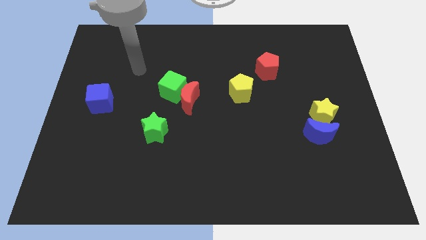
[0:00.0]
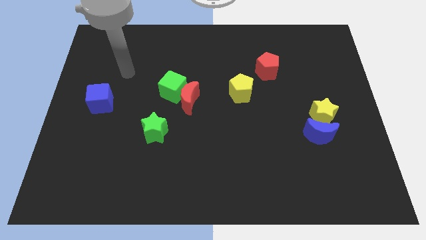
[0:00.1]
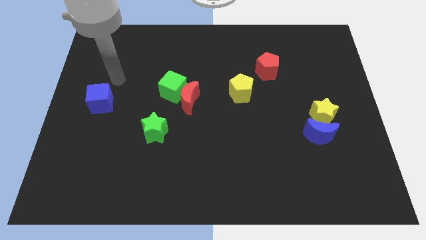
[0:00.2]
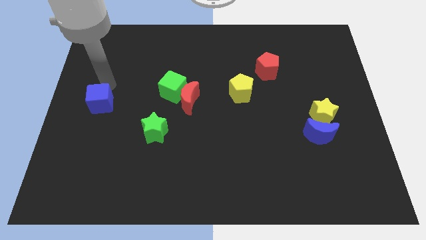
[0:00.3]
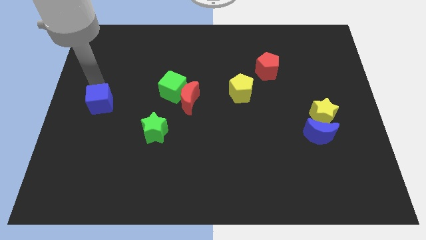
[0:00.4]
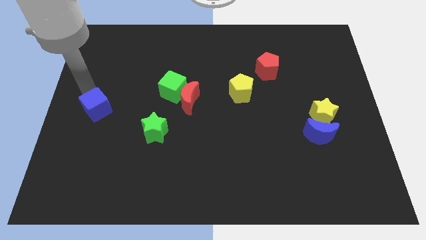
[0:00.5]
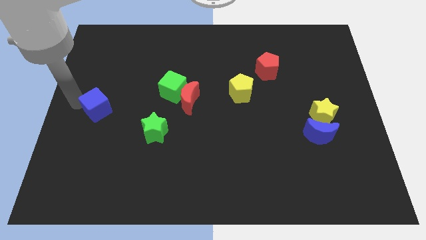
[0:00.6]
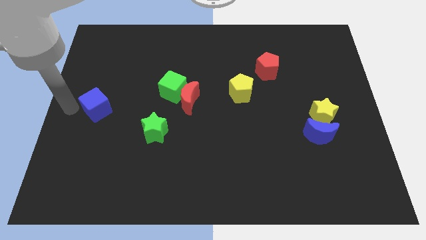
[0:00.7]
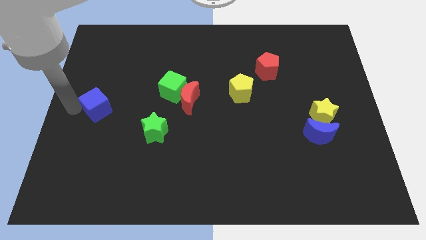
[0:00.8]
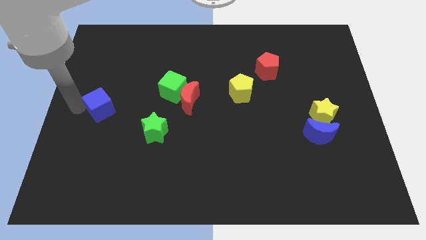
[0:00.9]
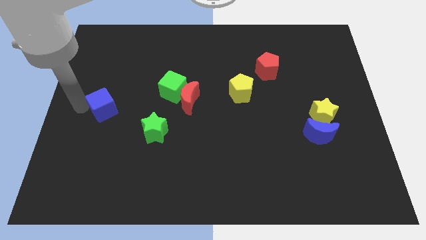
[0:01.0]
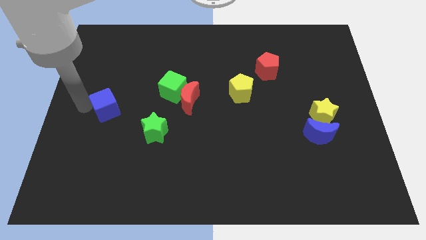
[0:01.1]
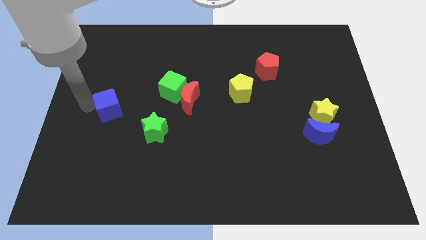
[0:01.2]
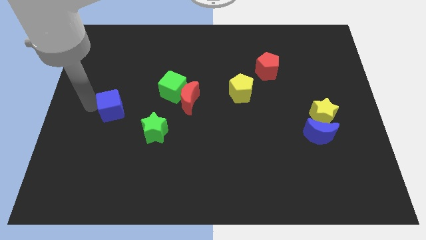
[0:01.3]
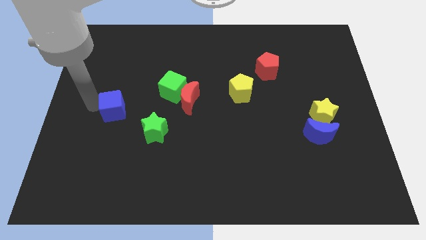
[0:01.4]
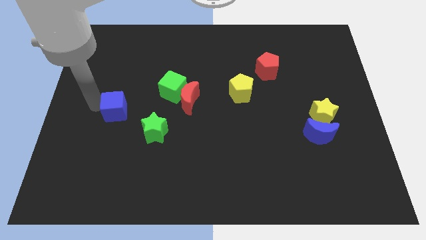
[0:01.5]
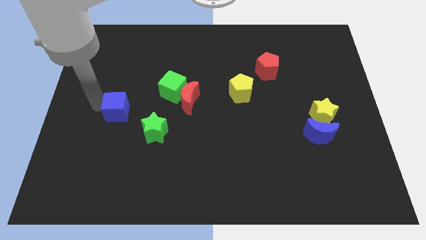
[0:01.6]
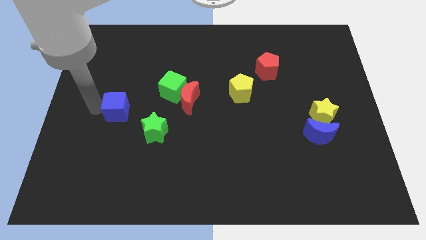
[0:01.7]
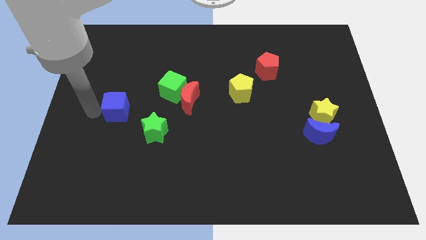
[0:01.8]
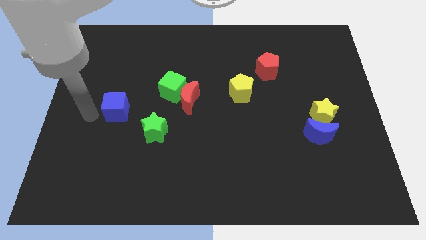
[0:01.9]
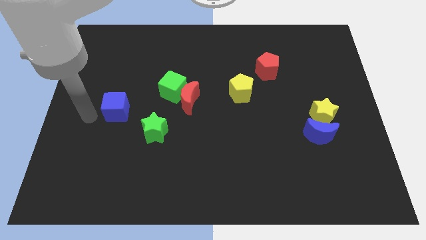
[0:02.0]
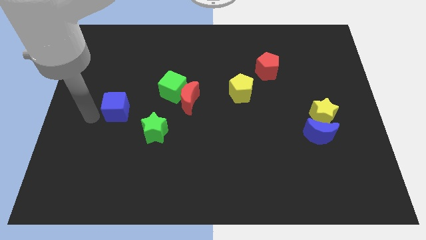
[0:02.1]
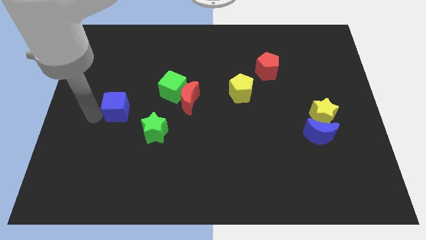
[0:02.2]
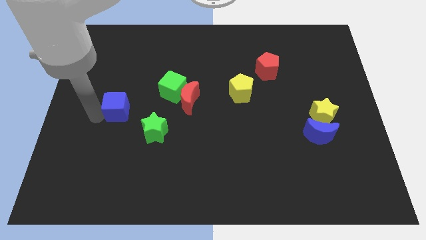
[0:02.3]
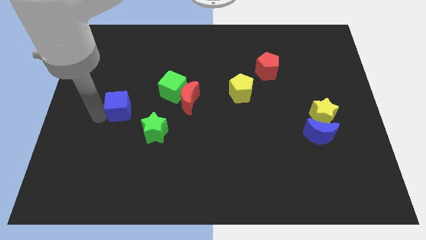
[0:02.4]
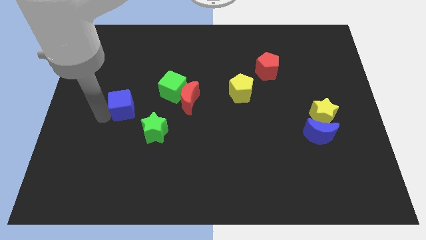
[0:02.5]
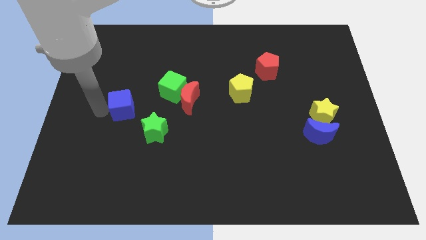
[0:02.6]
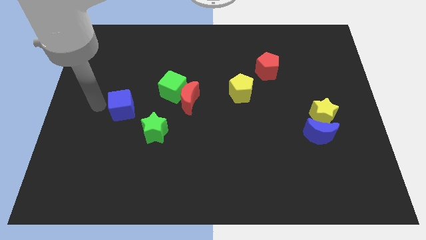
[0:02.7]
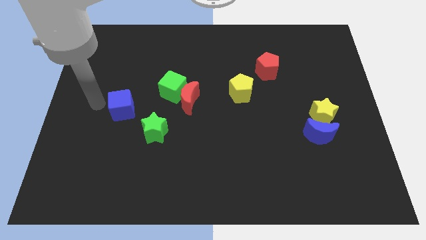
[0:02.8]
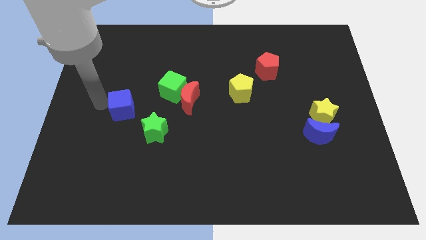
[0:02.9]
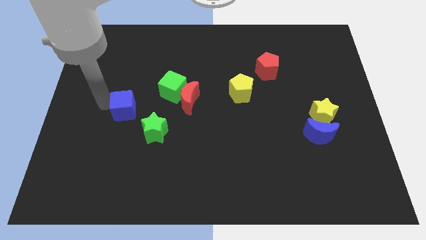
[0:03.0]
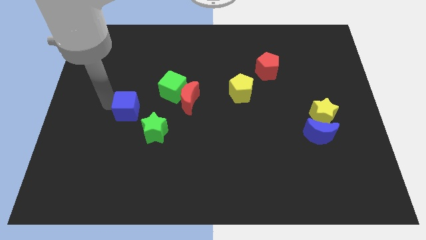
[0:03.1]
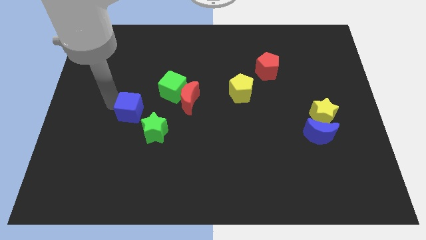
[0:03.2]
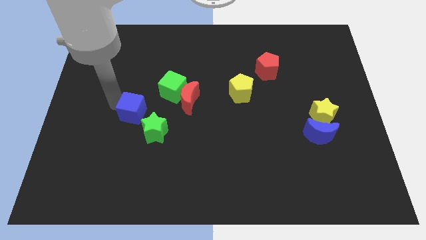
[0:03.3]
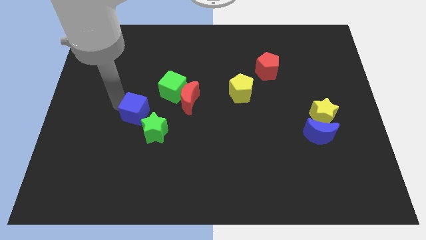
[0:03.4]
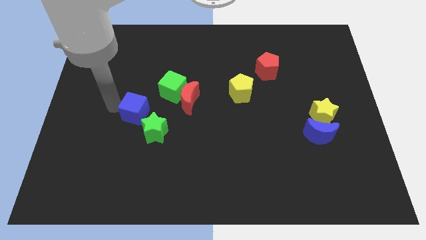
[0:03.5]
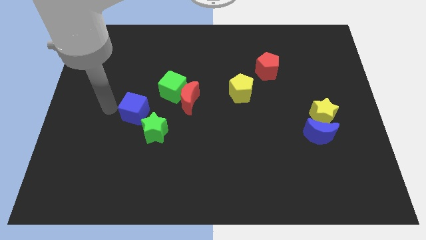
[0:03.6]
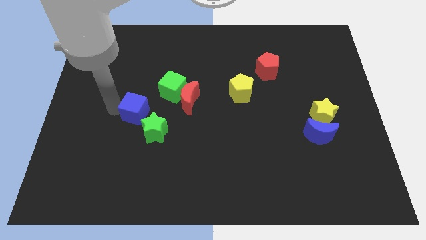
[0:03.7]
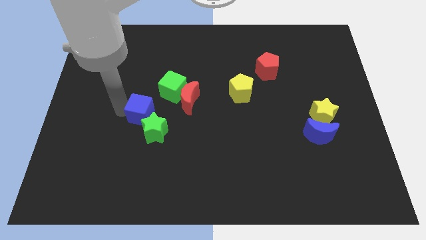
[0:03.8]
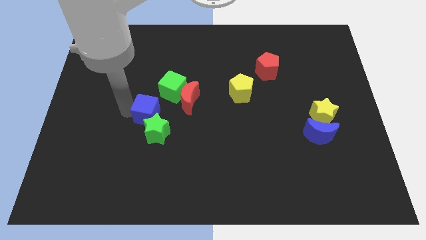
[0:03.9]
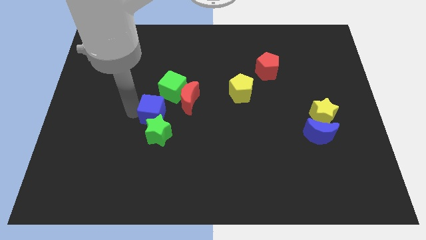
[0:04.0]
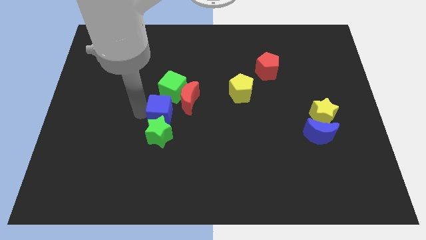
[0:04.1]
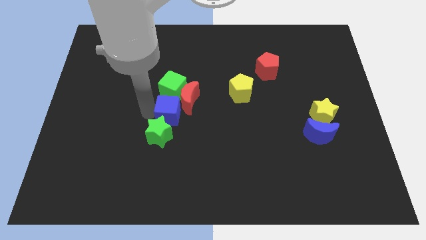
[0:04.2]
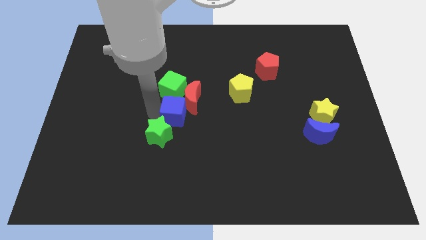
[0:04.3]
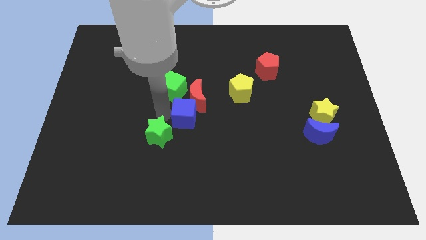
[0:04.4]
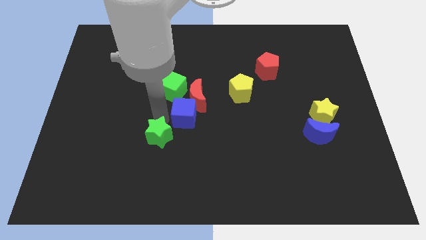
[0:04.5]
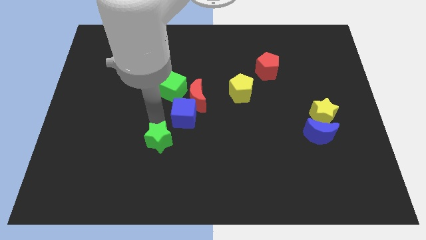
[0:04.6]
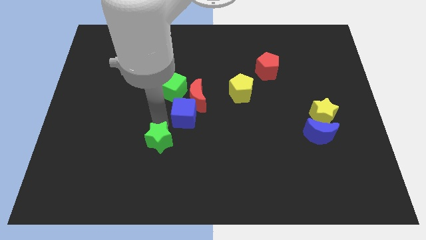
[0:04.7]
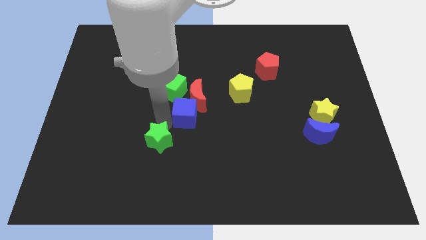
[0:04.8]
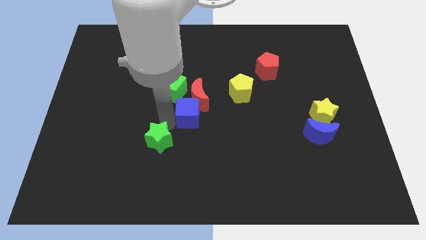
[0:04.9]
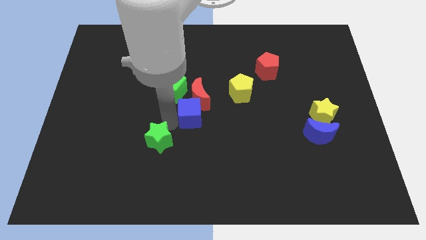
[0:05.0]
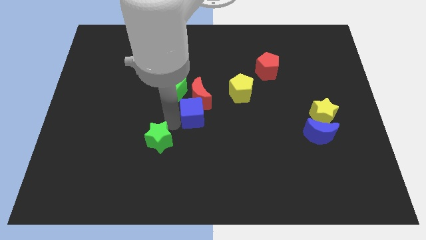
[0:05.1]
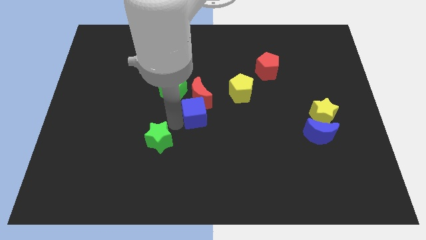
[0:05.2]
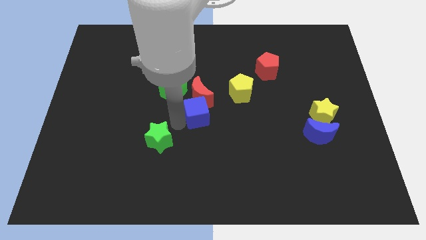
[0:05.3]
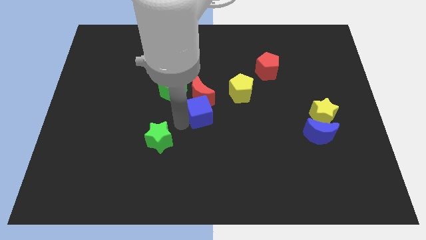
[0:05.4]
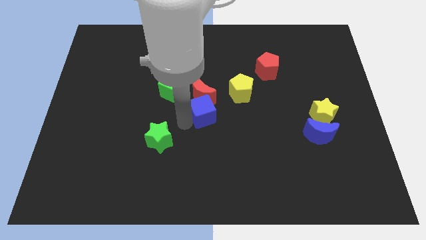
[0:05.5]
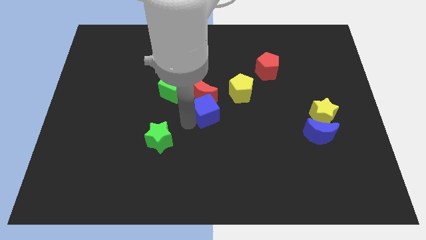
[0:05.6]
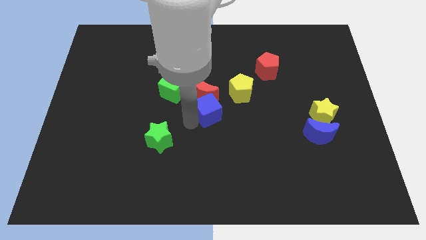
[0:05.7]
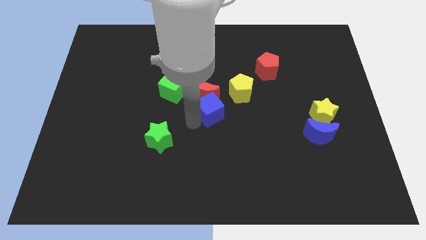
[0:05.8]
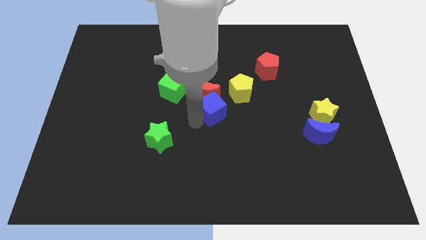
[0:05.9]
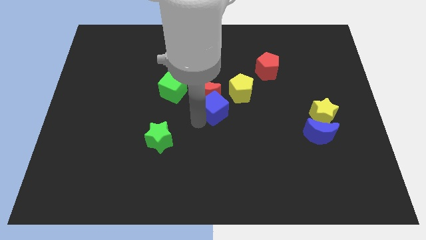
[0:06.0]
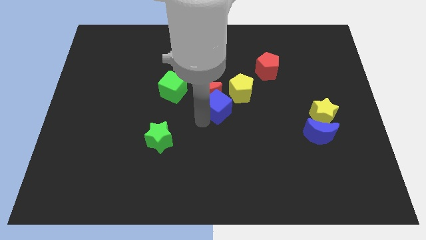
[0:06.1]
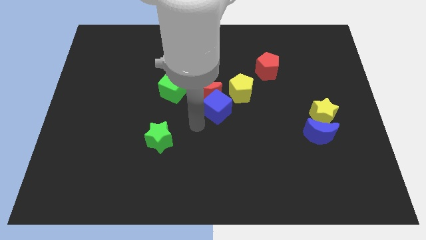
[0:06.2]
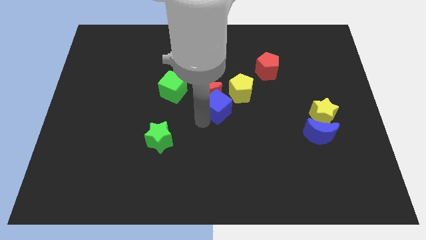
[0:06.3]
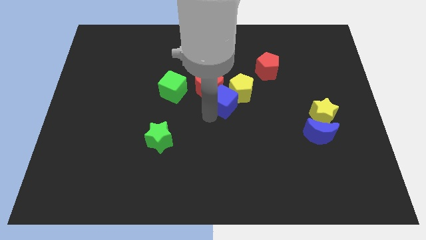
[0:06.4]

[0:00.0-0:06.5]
put the blue cube close to the yellow pentagon

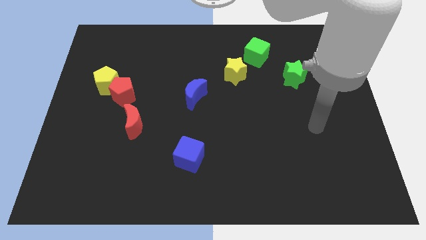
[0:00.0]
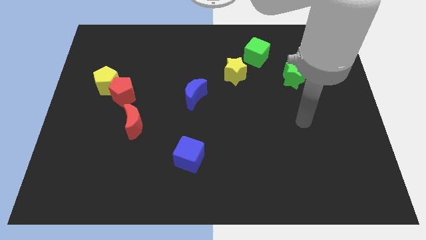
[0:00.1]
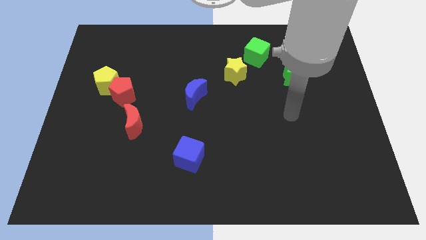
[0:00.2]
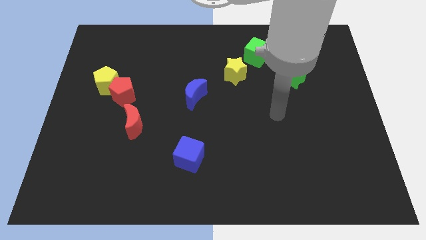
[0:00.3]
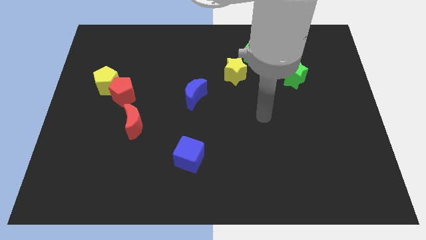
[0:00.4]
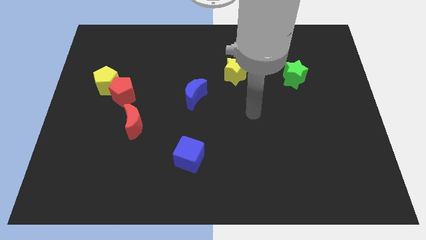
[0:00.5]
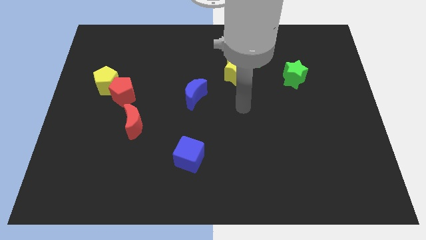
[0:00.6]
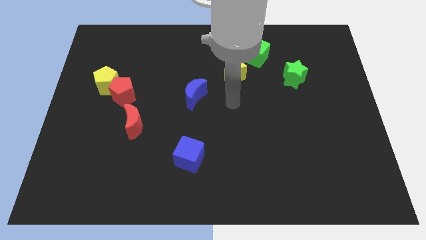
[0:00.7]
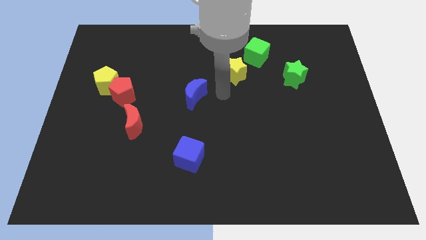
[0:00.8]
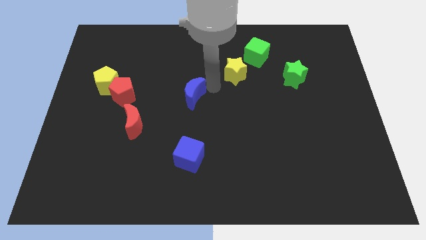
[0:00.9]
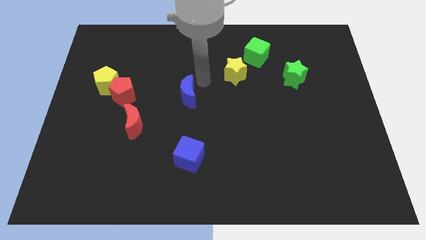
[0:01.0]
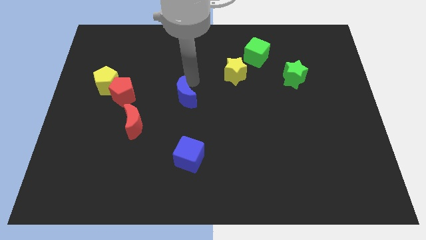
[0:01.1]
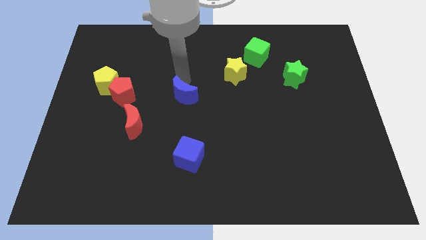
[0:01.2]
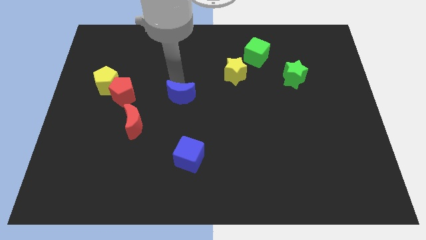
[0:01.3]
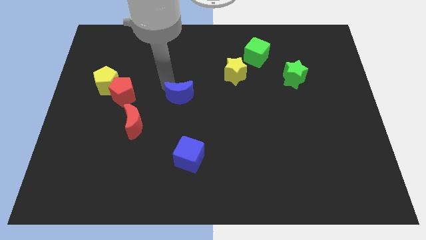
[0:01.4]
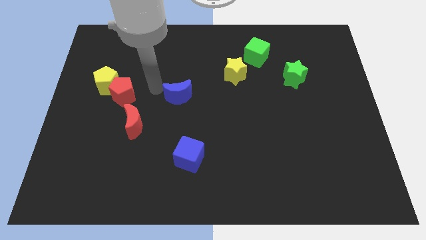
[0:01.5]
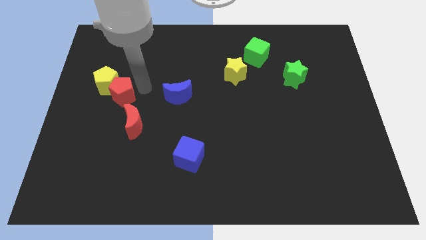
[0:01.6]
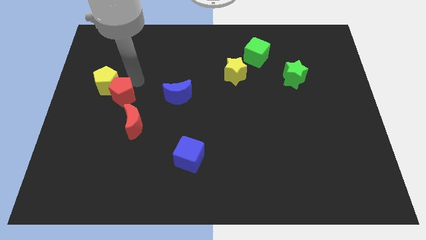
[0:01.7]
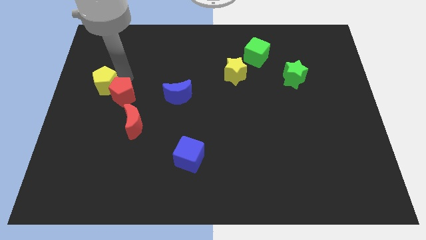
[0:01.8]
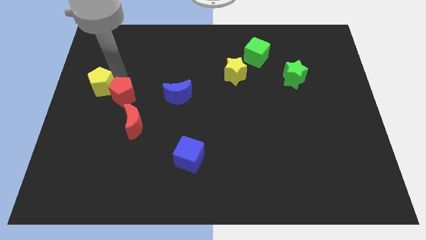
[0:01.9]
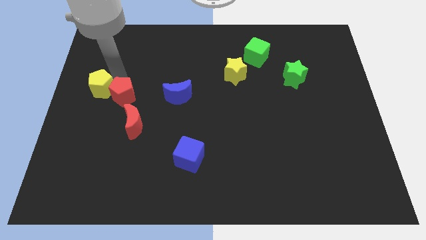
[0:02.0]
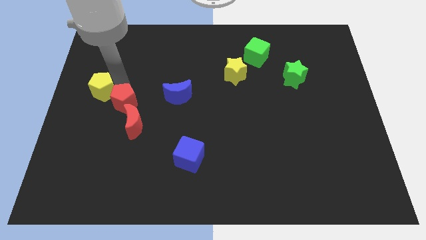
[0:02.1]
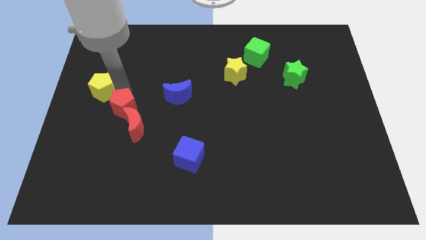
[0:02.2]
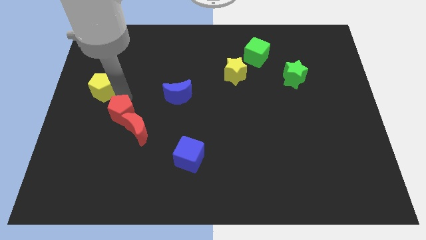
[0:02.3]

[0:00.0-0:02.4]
push the red pentagon close to the red moon
